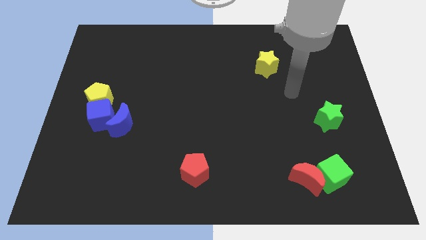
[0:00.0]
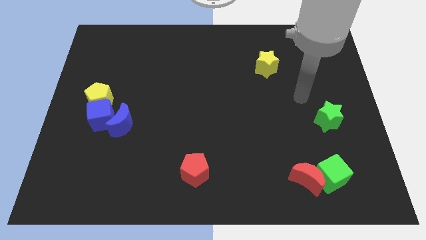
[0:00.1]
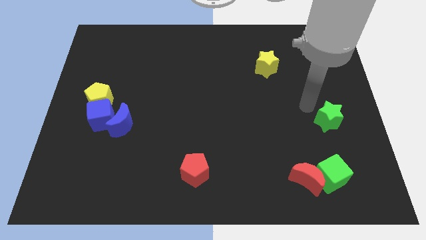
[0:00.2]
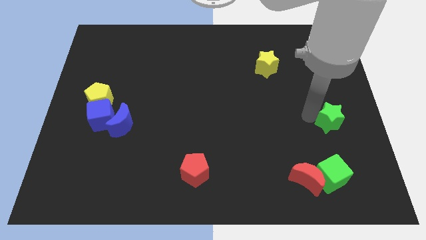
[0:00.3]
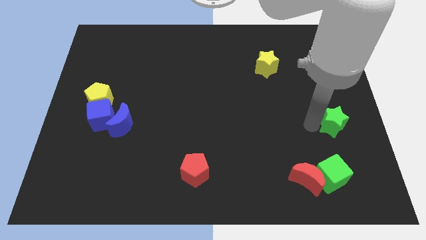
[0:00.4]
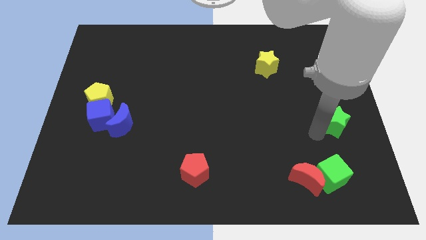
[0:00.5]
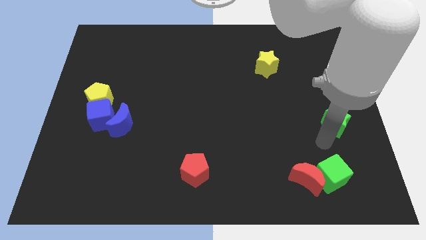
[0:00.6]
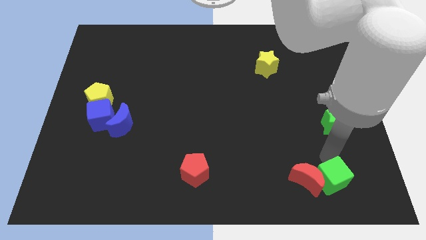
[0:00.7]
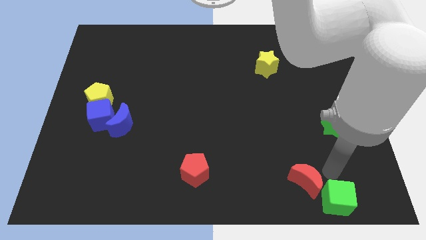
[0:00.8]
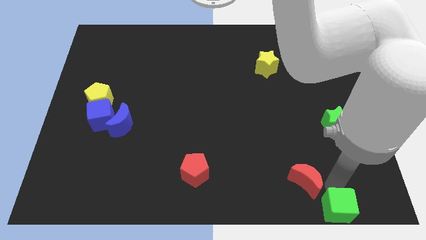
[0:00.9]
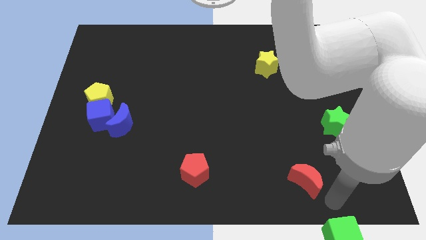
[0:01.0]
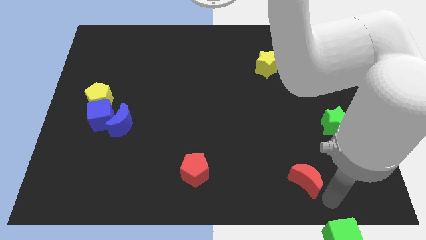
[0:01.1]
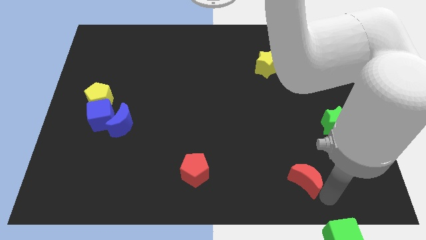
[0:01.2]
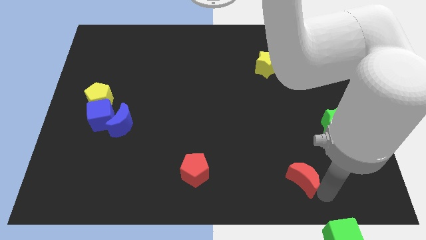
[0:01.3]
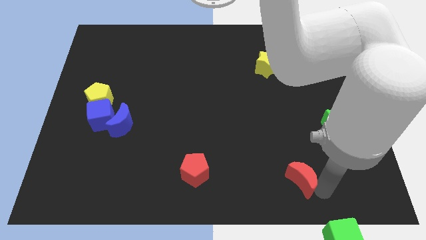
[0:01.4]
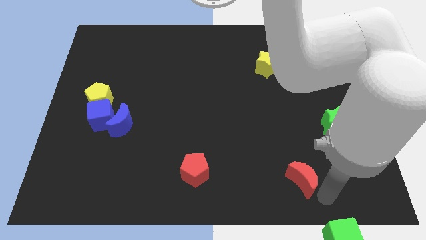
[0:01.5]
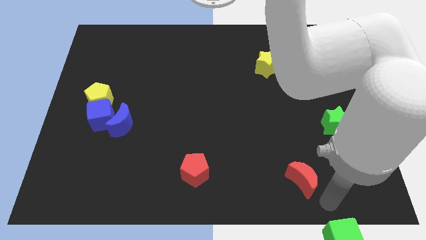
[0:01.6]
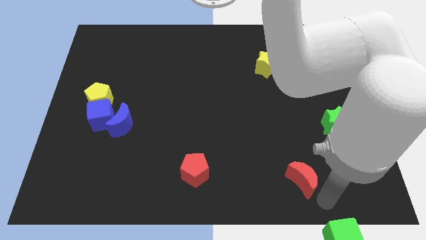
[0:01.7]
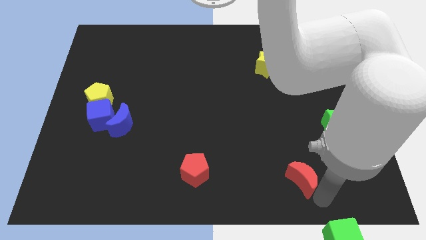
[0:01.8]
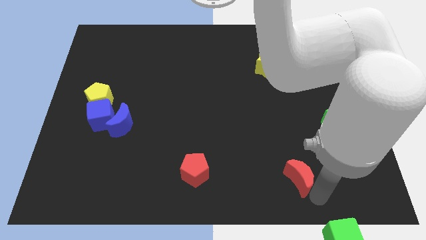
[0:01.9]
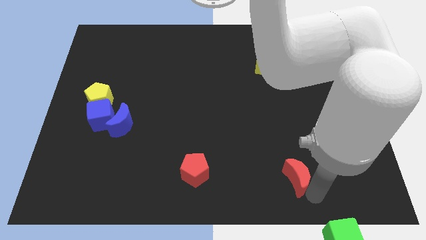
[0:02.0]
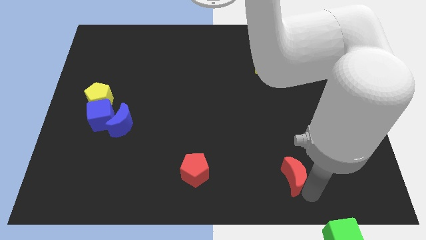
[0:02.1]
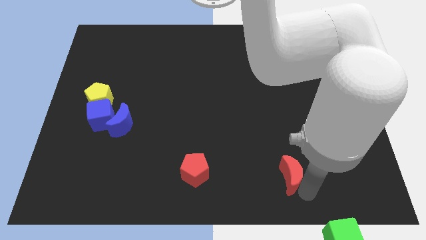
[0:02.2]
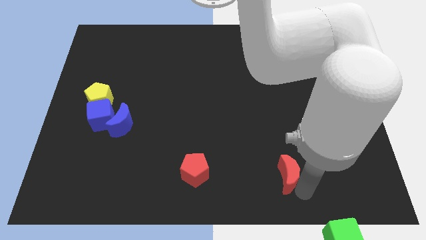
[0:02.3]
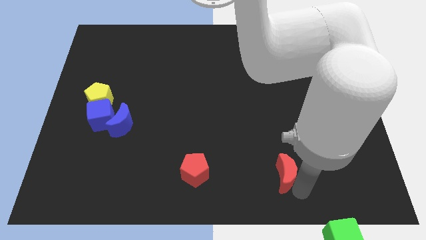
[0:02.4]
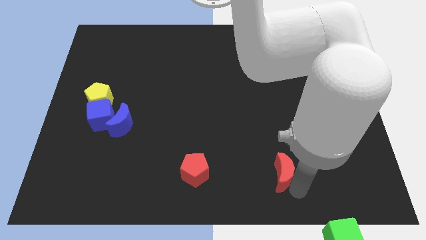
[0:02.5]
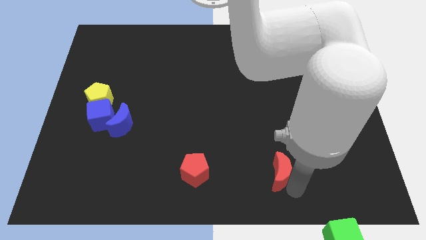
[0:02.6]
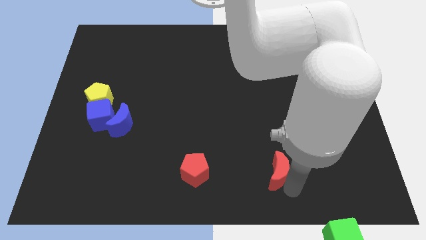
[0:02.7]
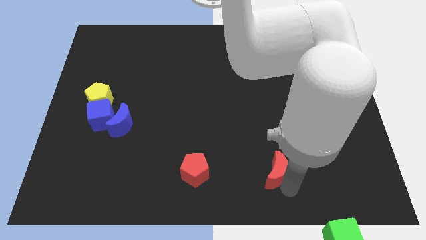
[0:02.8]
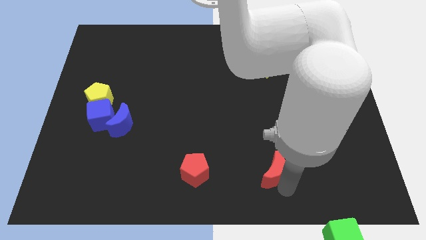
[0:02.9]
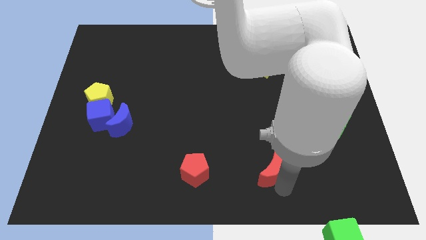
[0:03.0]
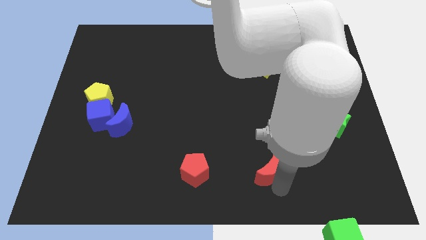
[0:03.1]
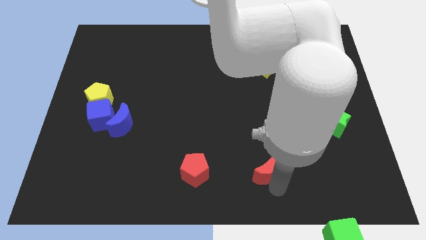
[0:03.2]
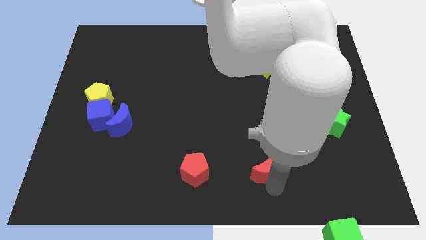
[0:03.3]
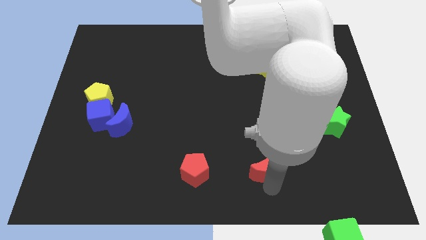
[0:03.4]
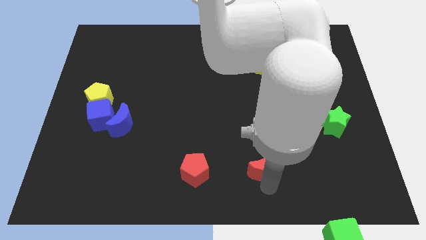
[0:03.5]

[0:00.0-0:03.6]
push the red moon up and to the left diagonally a little

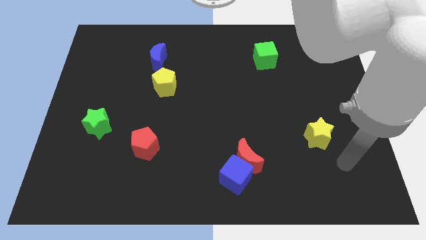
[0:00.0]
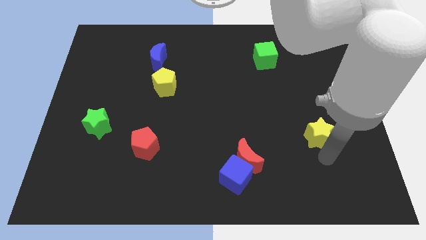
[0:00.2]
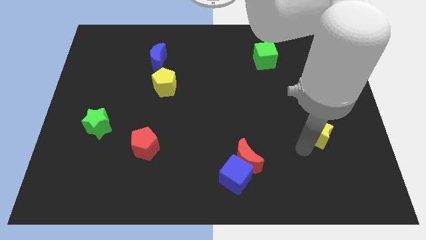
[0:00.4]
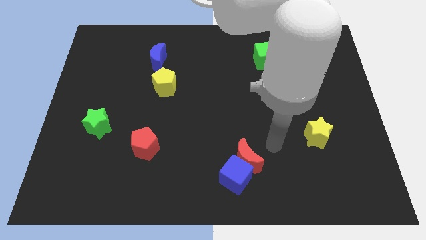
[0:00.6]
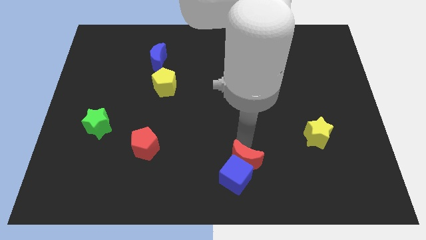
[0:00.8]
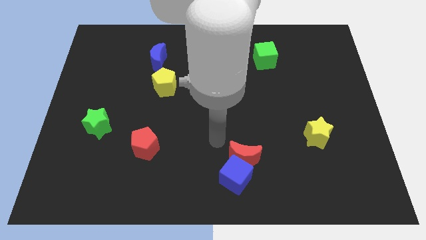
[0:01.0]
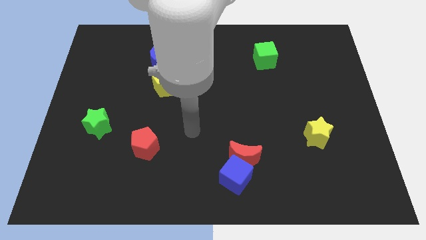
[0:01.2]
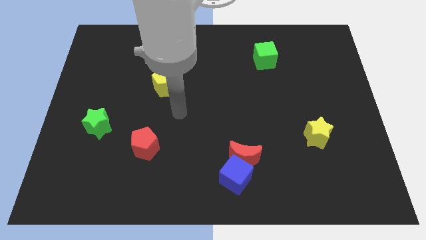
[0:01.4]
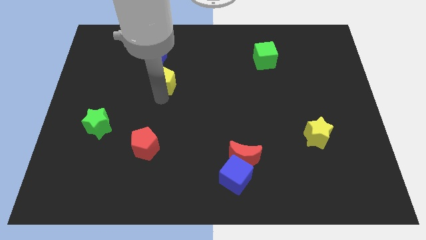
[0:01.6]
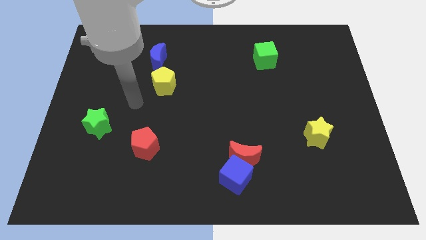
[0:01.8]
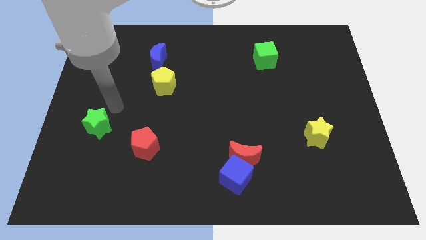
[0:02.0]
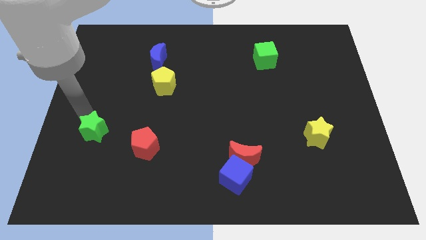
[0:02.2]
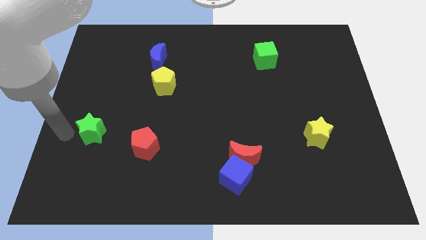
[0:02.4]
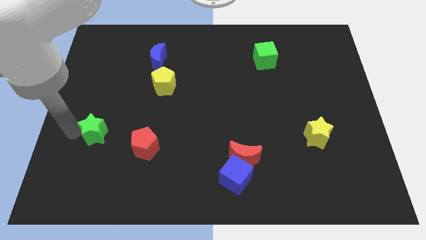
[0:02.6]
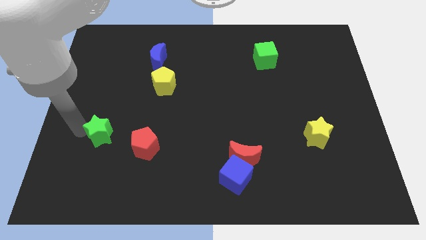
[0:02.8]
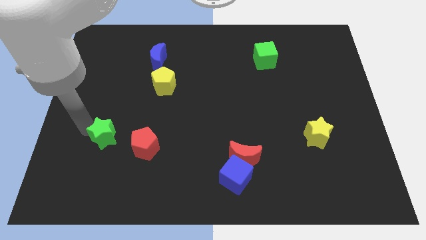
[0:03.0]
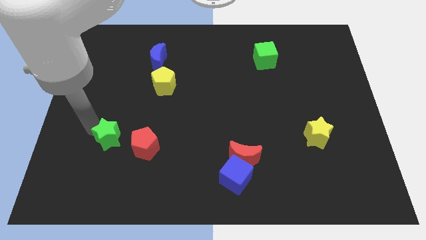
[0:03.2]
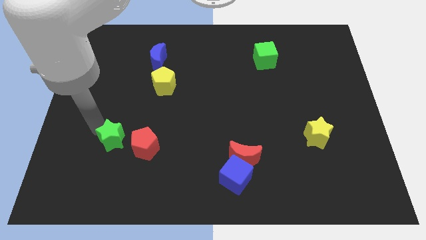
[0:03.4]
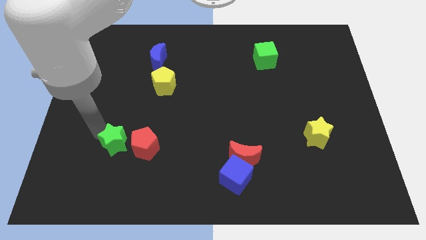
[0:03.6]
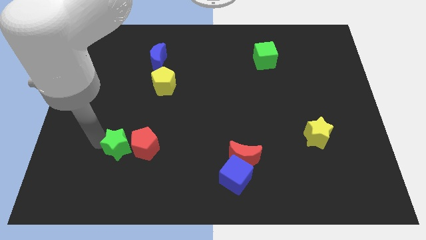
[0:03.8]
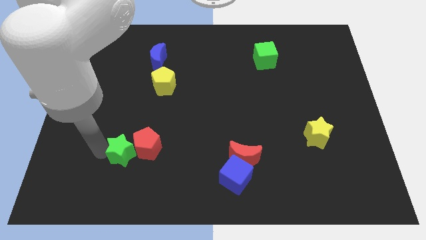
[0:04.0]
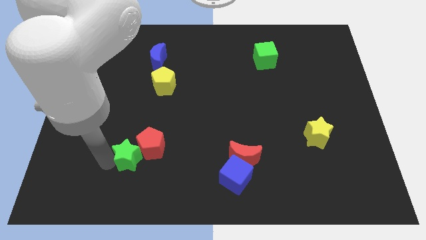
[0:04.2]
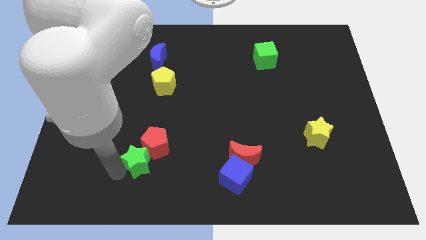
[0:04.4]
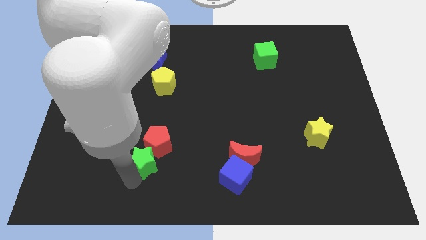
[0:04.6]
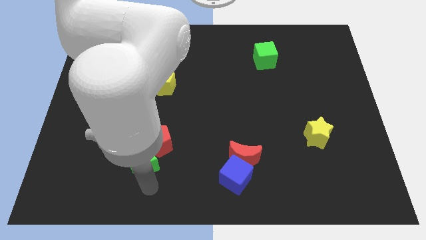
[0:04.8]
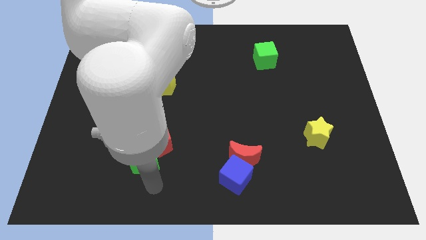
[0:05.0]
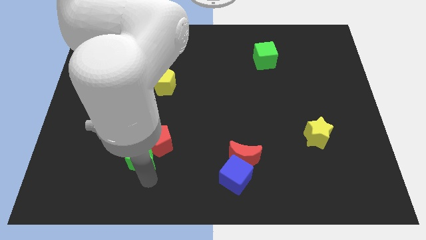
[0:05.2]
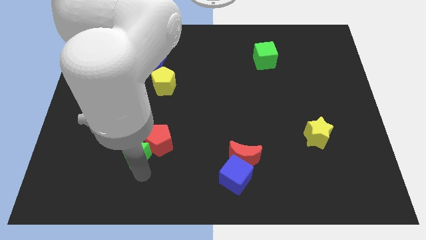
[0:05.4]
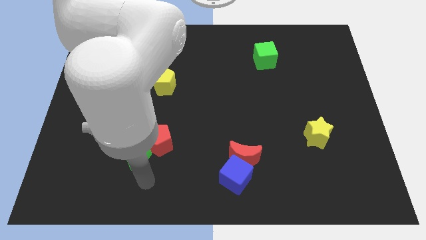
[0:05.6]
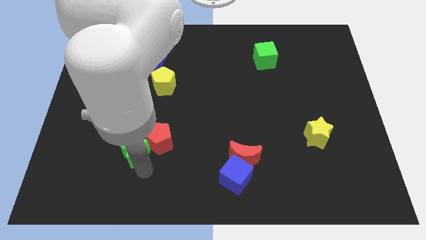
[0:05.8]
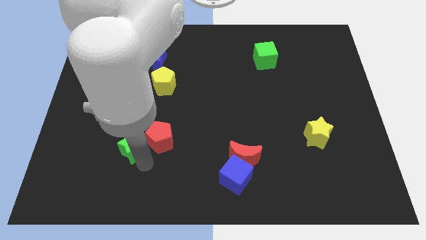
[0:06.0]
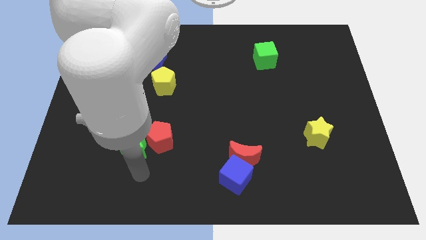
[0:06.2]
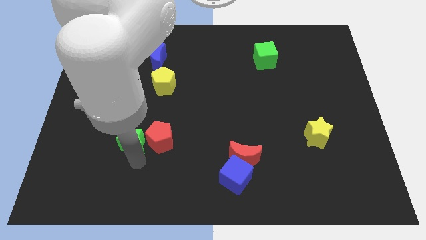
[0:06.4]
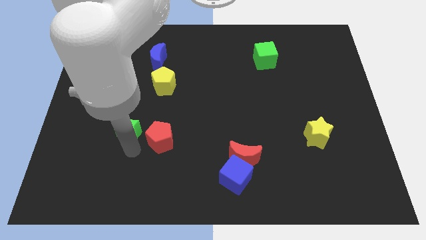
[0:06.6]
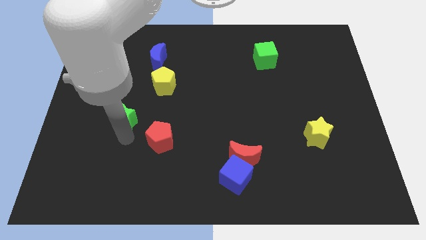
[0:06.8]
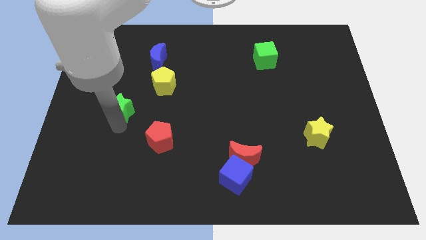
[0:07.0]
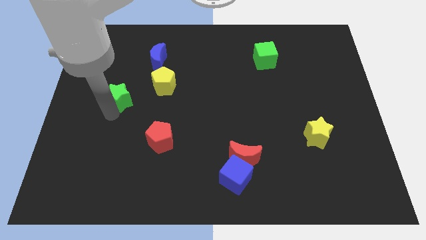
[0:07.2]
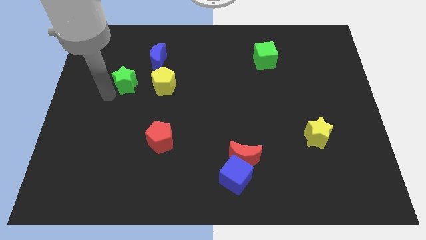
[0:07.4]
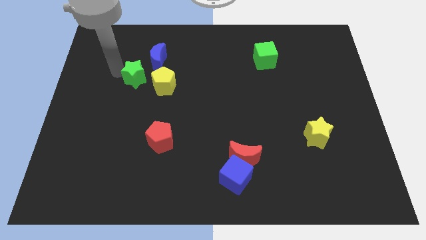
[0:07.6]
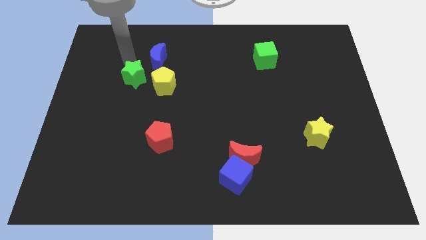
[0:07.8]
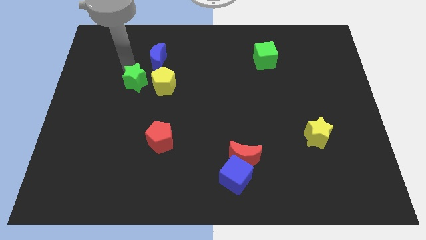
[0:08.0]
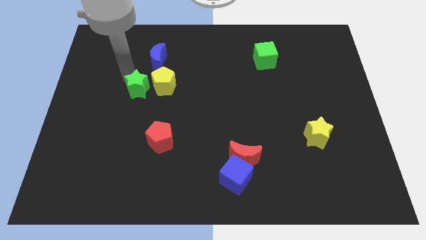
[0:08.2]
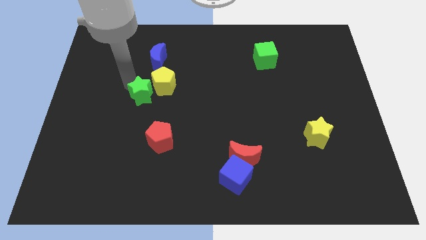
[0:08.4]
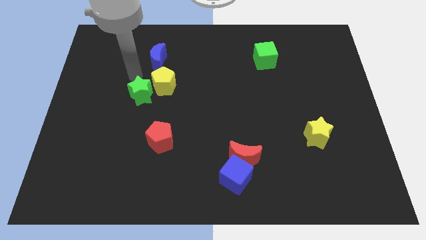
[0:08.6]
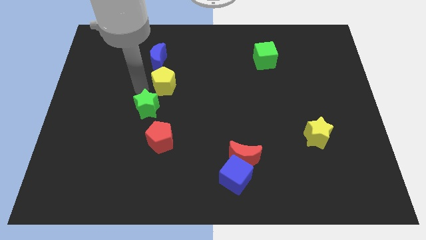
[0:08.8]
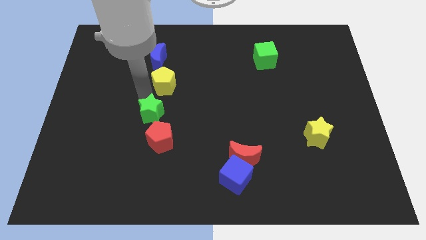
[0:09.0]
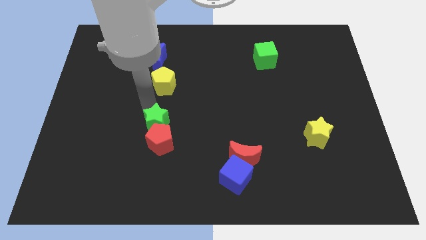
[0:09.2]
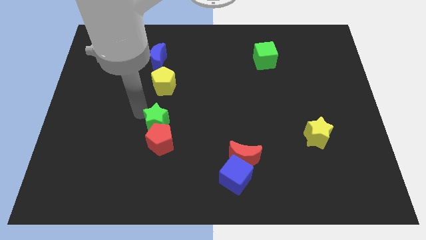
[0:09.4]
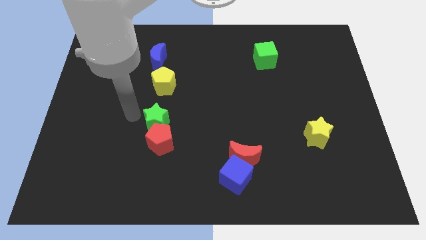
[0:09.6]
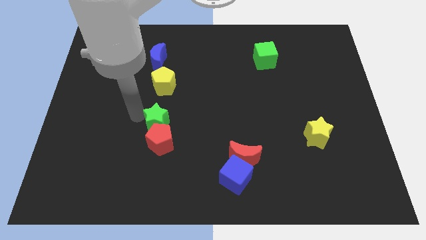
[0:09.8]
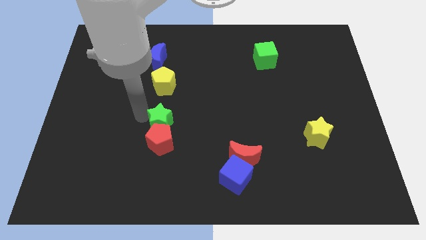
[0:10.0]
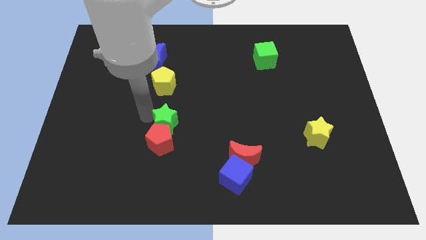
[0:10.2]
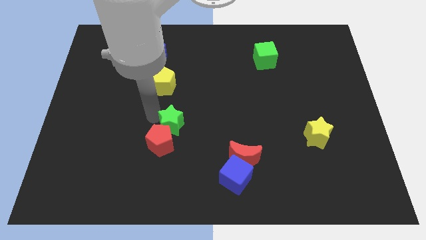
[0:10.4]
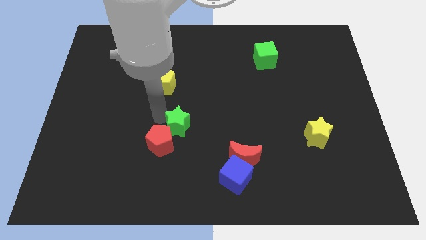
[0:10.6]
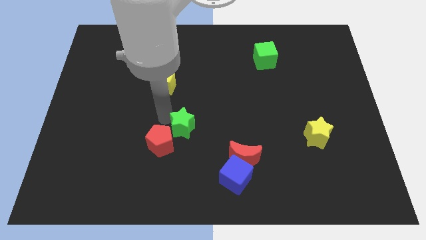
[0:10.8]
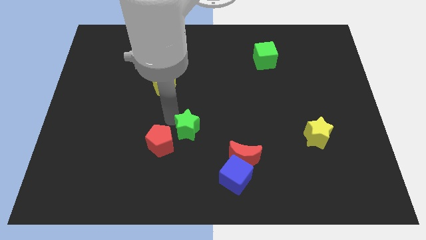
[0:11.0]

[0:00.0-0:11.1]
push the green star to the right
